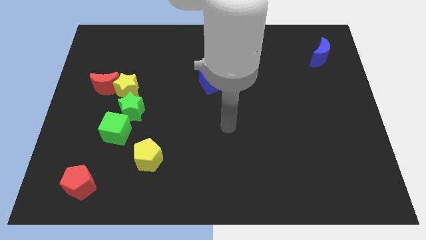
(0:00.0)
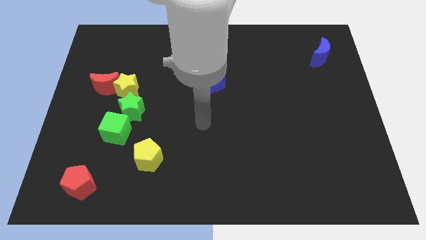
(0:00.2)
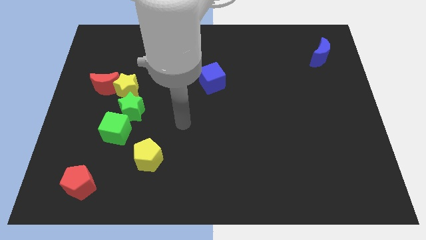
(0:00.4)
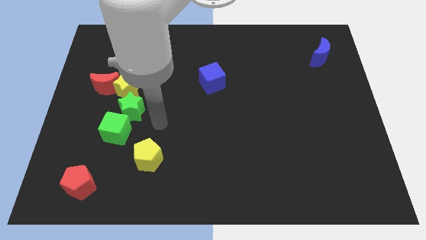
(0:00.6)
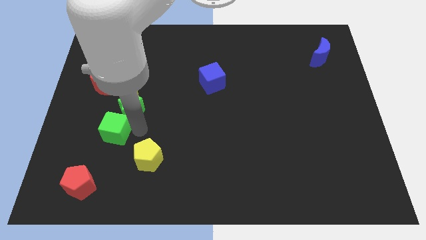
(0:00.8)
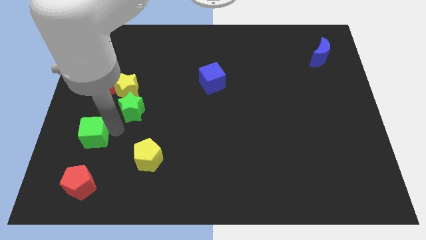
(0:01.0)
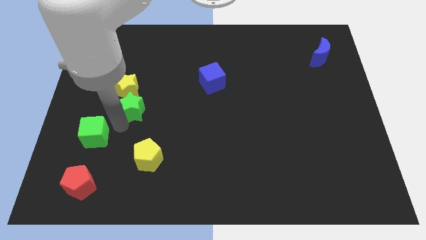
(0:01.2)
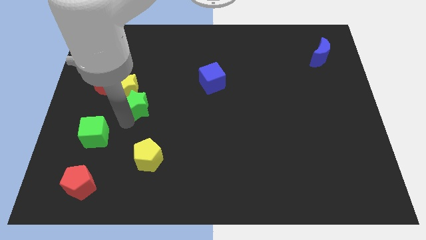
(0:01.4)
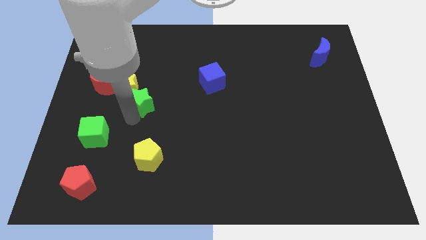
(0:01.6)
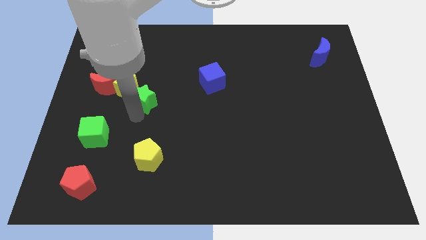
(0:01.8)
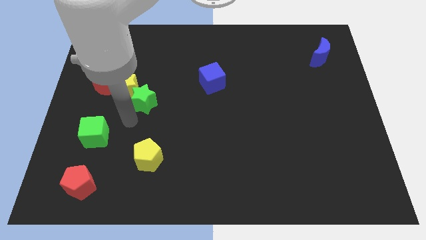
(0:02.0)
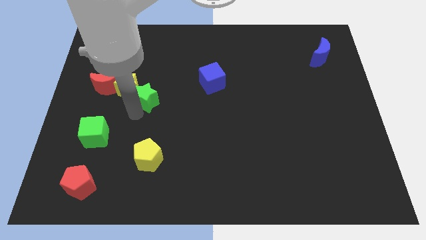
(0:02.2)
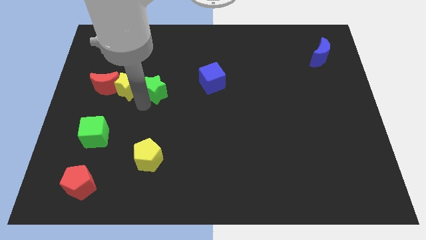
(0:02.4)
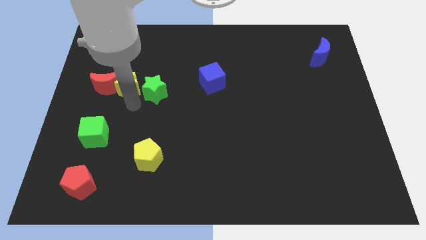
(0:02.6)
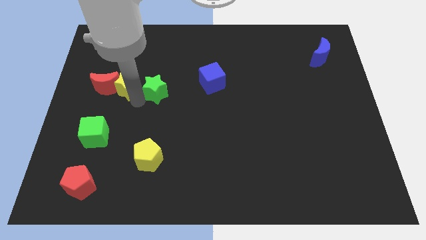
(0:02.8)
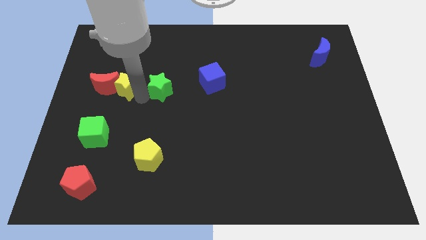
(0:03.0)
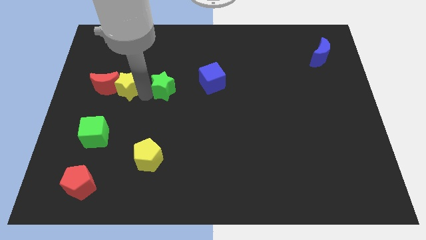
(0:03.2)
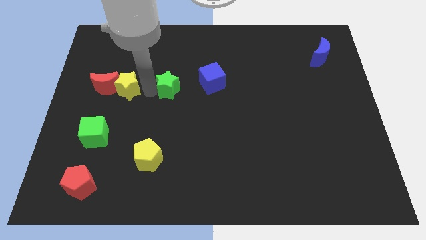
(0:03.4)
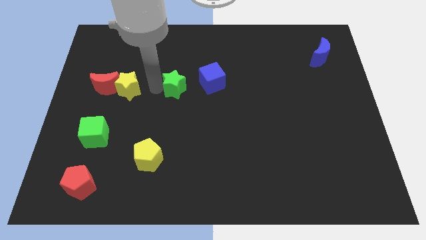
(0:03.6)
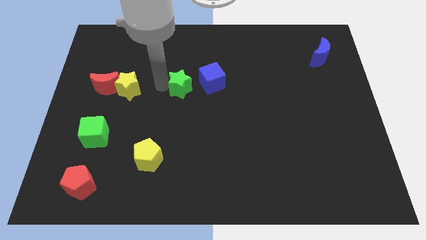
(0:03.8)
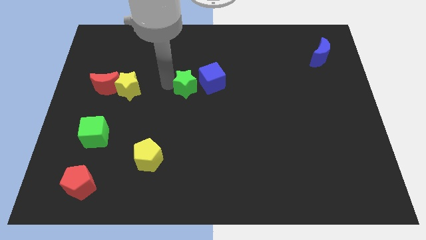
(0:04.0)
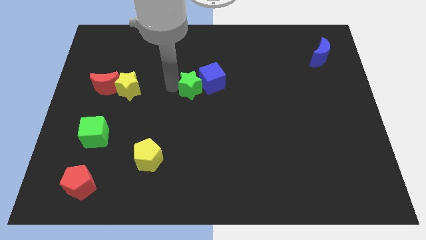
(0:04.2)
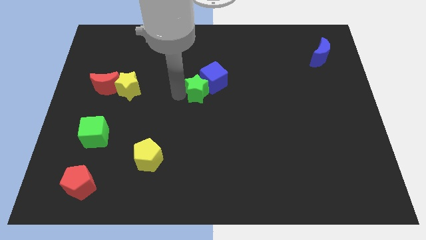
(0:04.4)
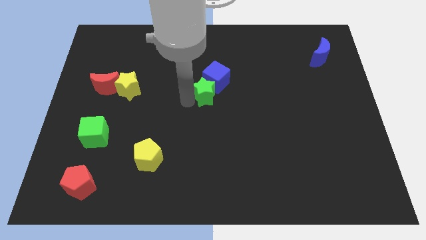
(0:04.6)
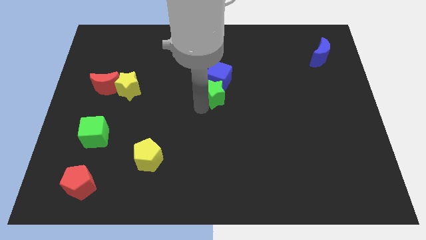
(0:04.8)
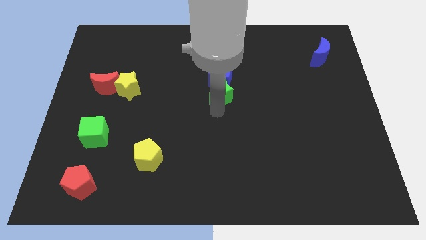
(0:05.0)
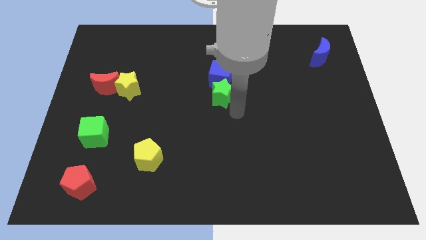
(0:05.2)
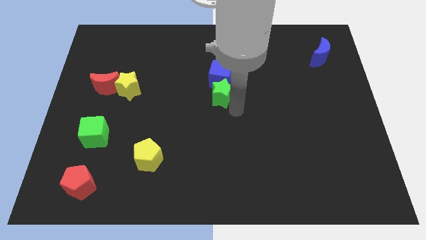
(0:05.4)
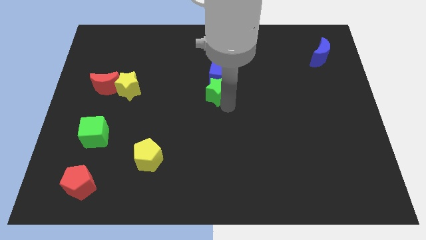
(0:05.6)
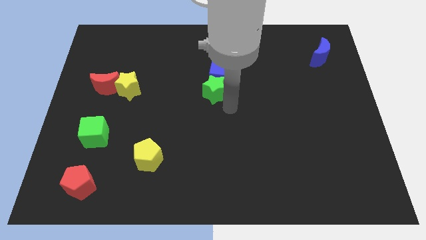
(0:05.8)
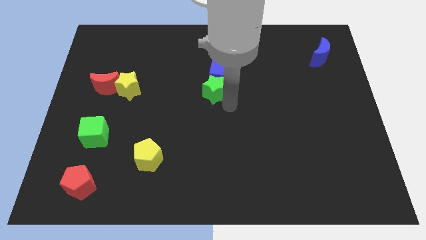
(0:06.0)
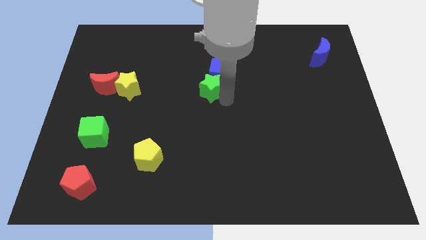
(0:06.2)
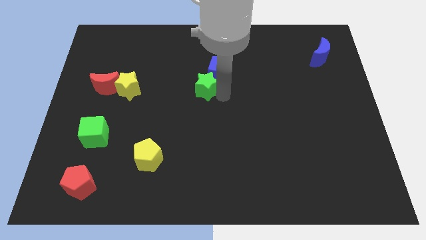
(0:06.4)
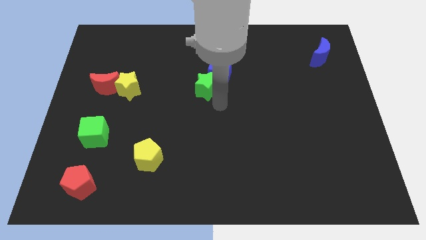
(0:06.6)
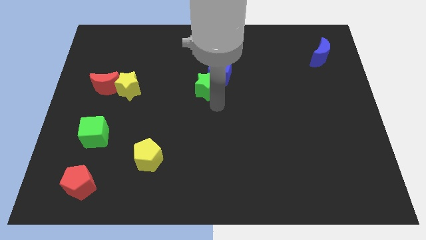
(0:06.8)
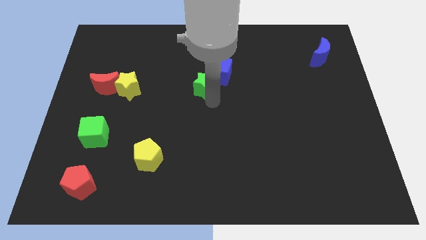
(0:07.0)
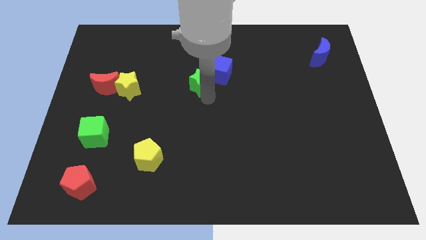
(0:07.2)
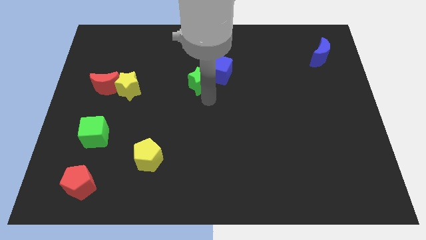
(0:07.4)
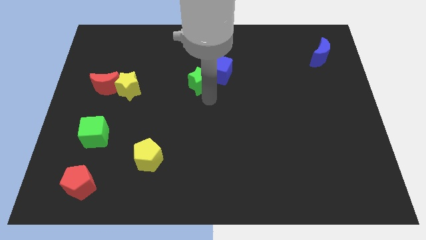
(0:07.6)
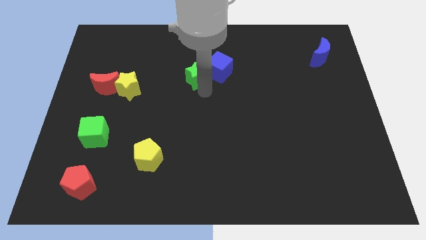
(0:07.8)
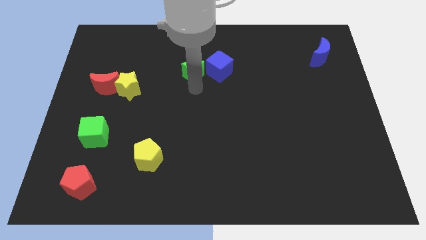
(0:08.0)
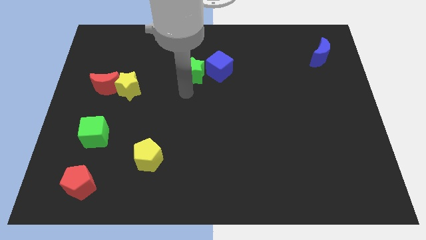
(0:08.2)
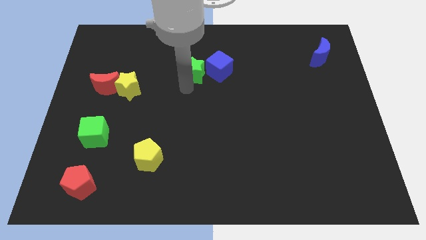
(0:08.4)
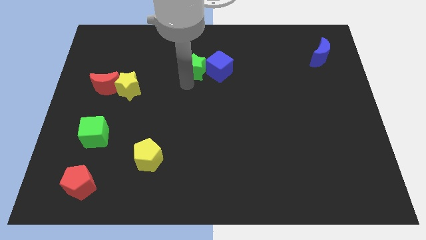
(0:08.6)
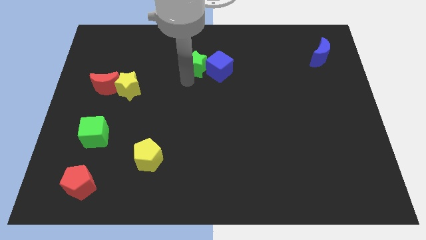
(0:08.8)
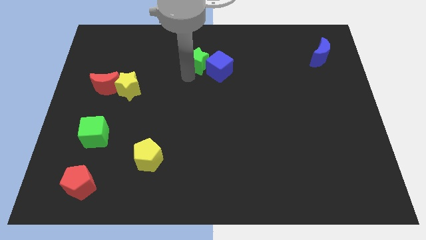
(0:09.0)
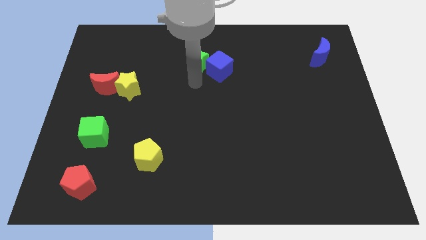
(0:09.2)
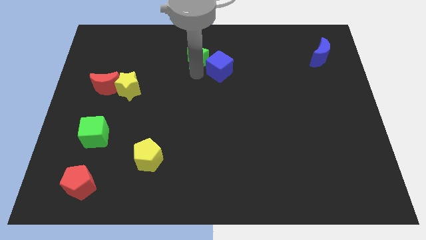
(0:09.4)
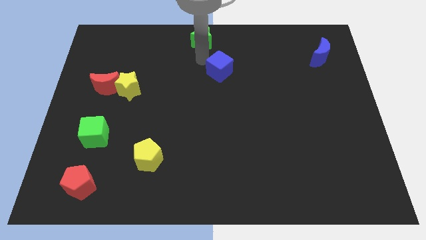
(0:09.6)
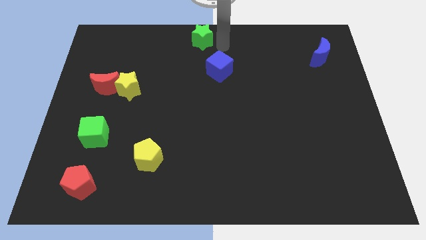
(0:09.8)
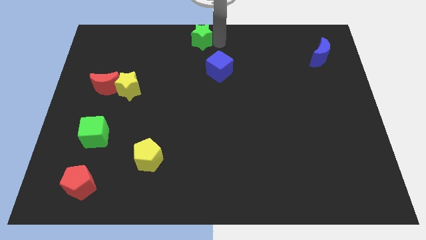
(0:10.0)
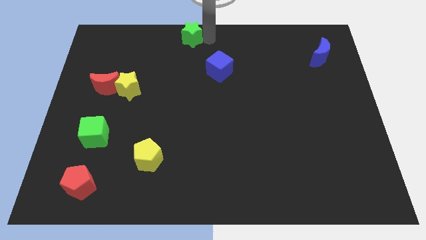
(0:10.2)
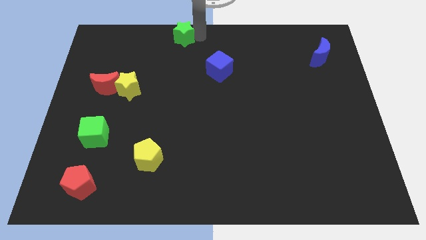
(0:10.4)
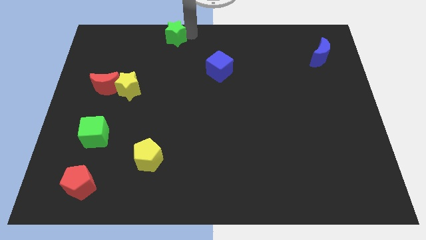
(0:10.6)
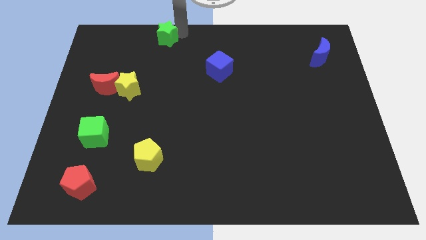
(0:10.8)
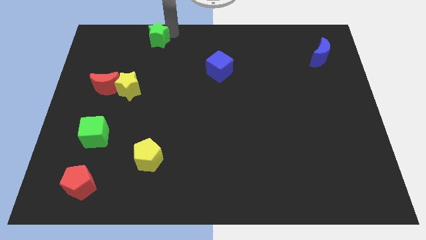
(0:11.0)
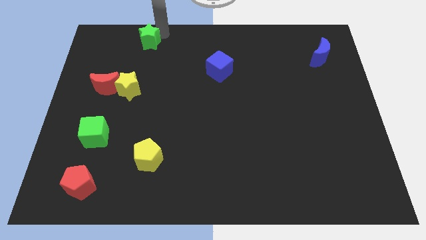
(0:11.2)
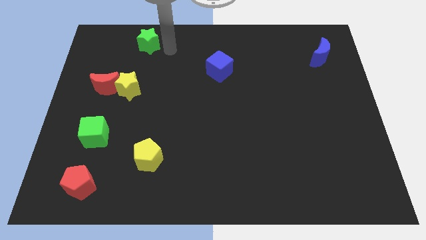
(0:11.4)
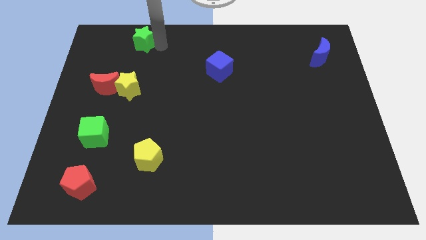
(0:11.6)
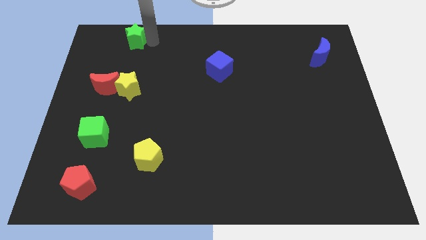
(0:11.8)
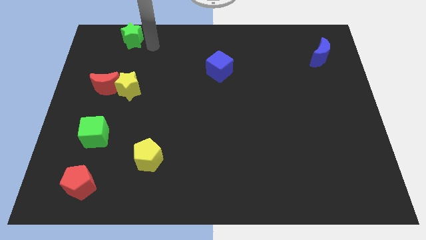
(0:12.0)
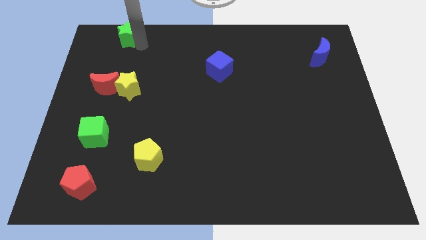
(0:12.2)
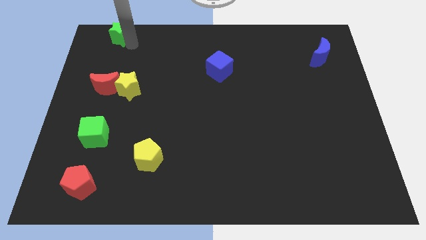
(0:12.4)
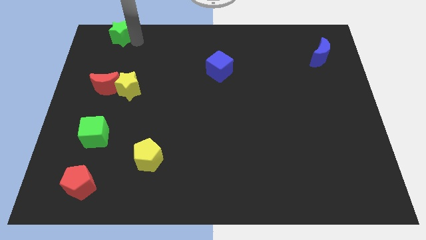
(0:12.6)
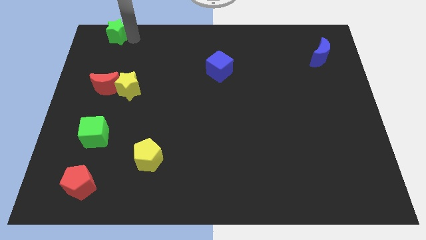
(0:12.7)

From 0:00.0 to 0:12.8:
put the green star to the top left of the board
